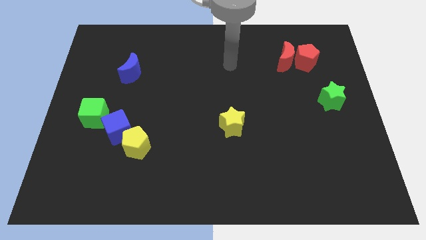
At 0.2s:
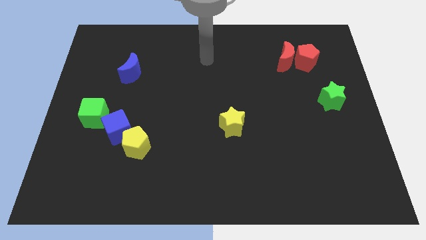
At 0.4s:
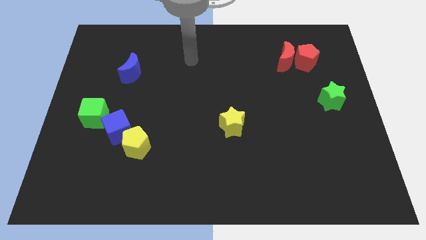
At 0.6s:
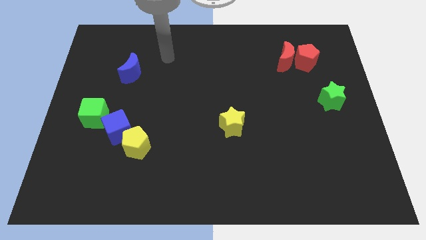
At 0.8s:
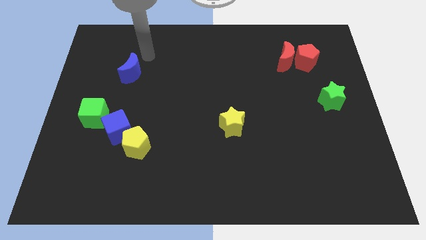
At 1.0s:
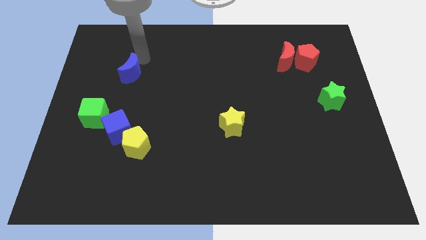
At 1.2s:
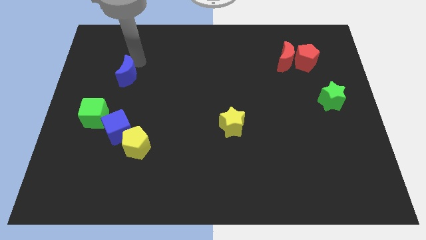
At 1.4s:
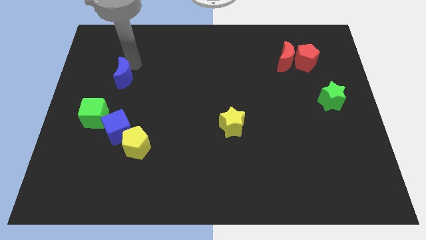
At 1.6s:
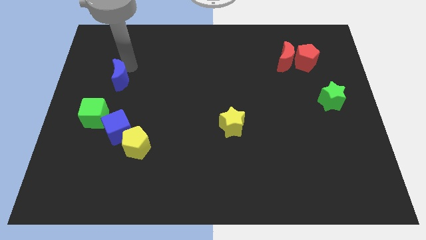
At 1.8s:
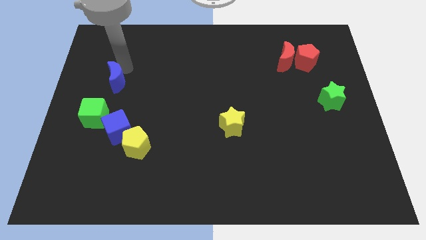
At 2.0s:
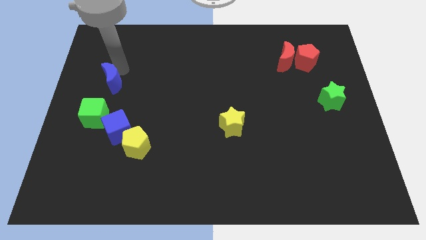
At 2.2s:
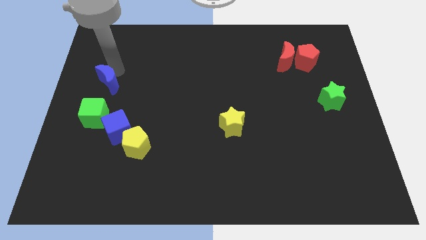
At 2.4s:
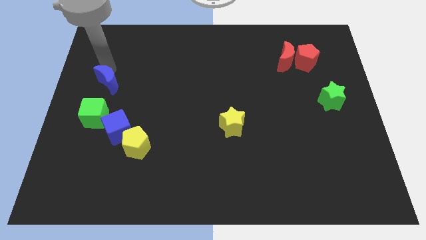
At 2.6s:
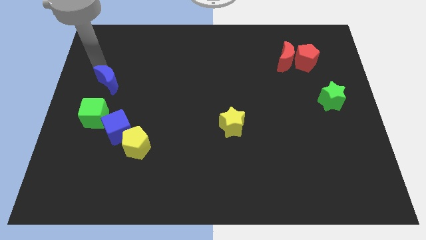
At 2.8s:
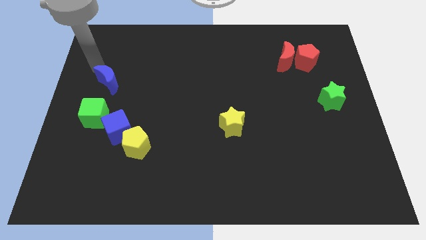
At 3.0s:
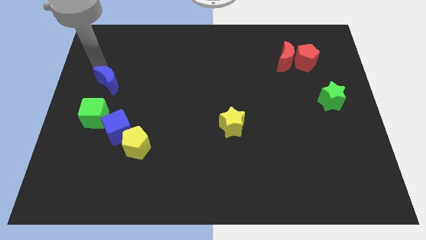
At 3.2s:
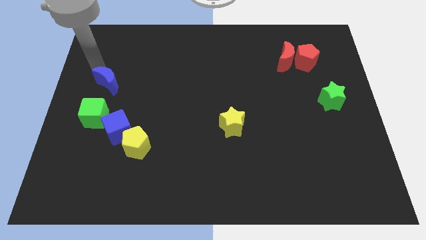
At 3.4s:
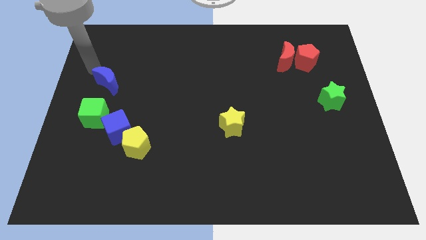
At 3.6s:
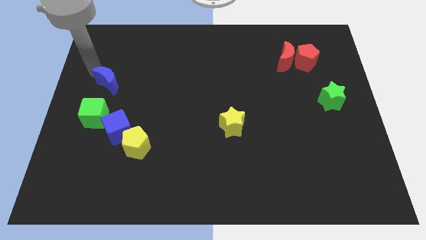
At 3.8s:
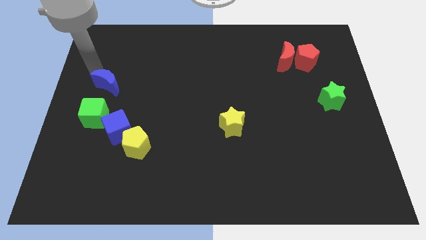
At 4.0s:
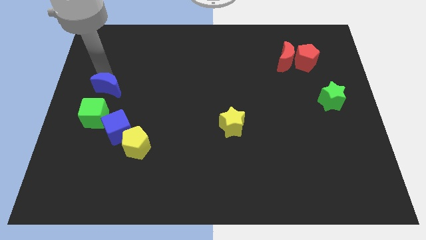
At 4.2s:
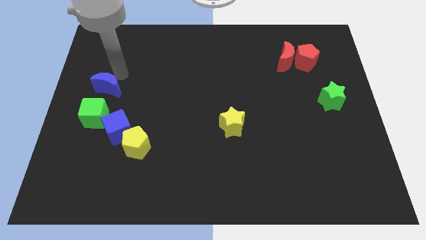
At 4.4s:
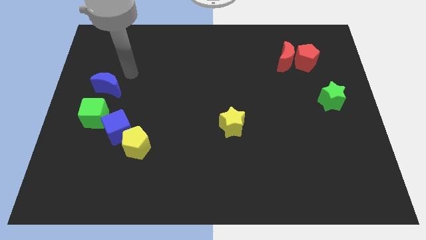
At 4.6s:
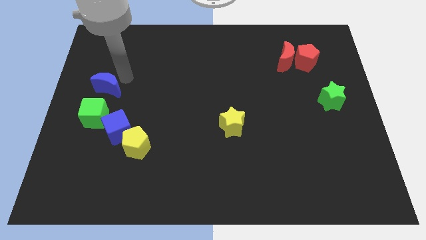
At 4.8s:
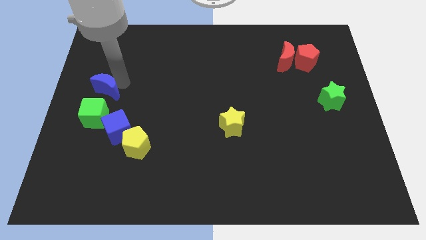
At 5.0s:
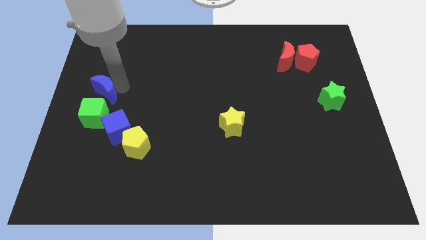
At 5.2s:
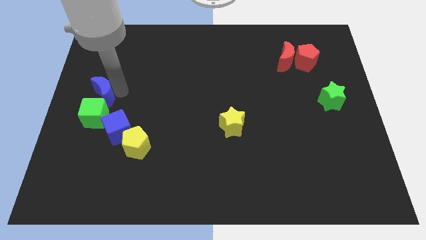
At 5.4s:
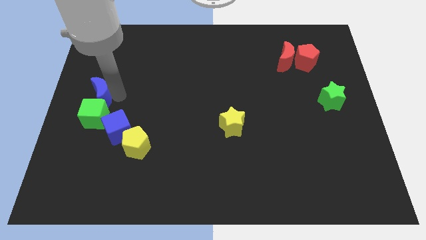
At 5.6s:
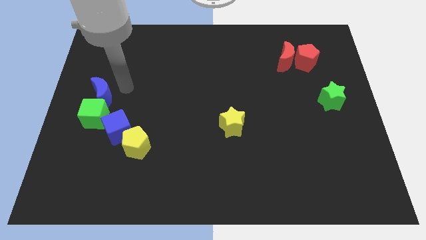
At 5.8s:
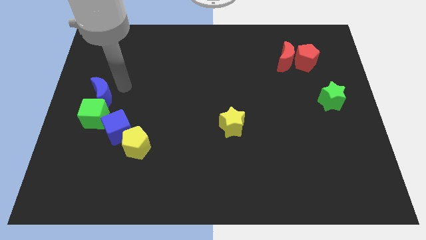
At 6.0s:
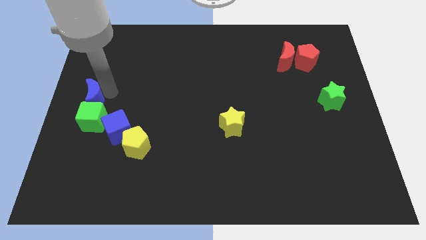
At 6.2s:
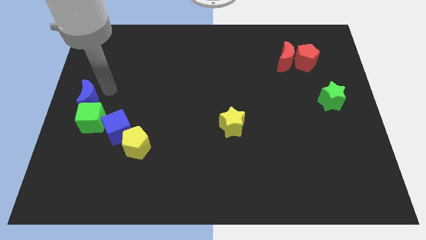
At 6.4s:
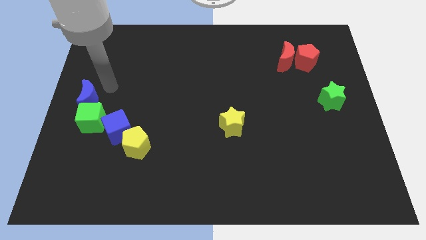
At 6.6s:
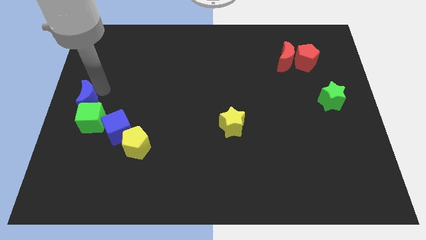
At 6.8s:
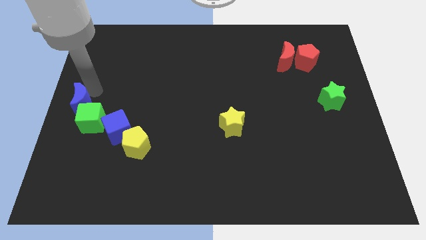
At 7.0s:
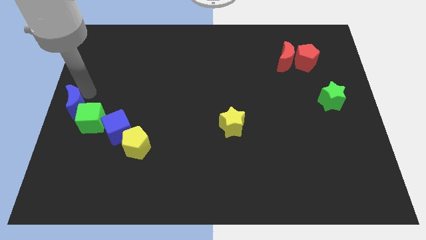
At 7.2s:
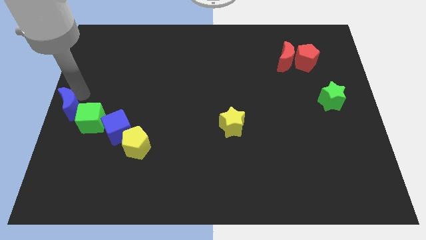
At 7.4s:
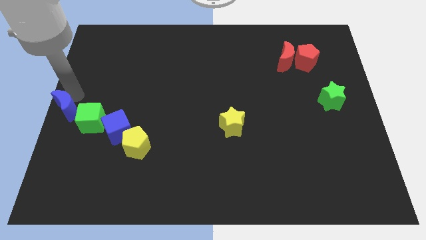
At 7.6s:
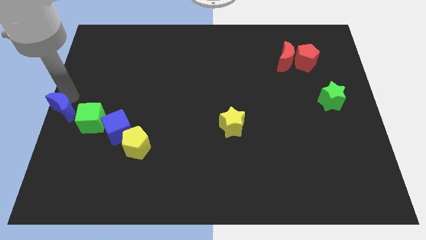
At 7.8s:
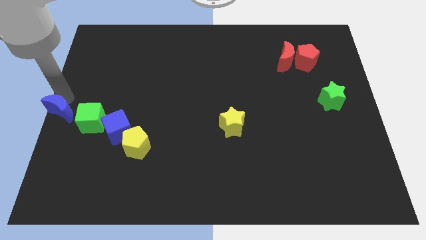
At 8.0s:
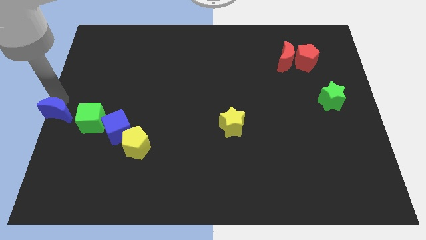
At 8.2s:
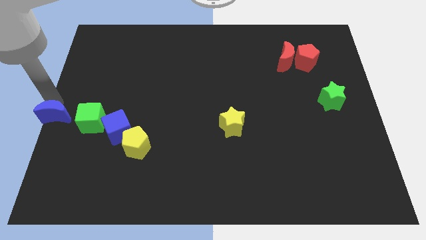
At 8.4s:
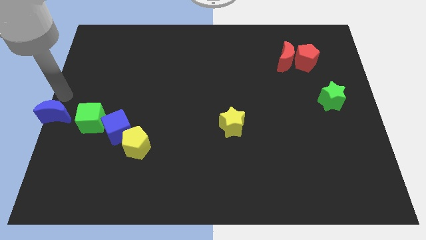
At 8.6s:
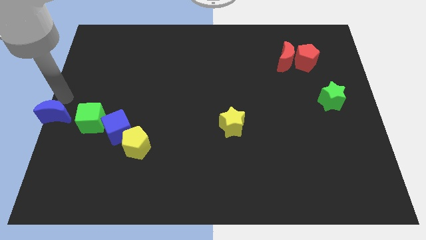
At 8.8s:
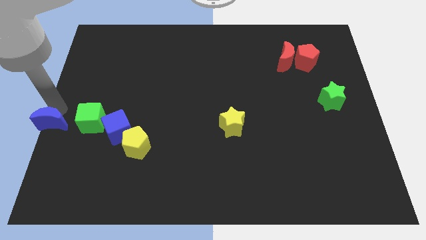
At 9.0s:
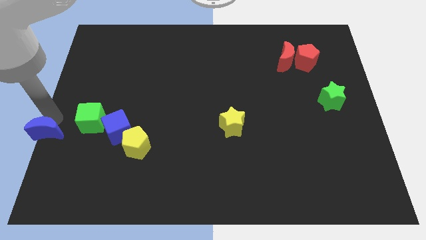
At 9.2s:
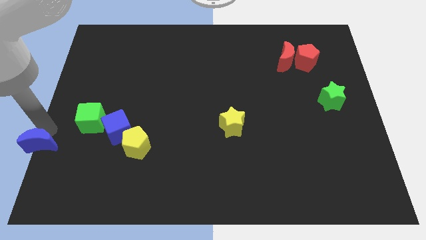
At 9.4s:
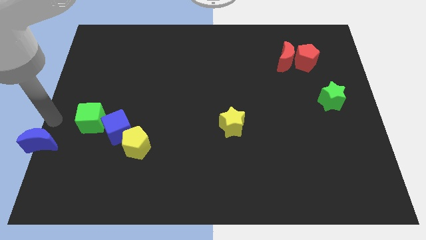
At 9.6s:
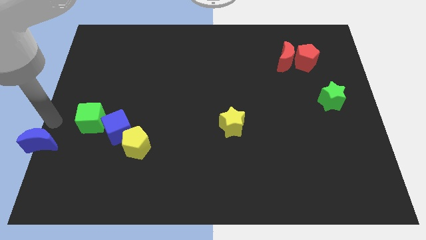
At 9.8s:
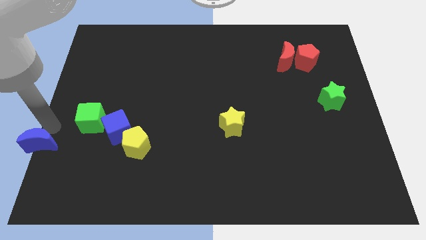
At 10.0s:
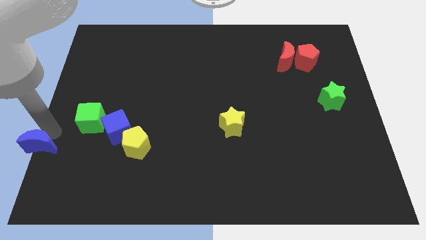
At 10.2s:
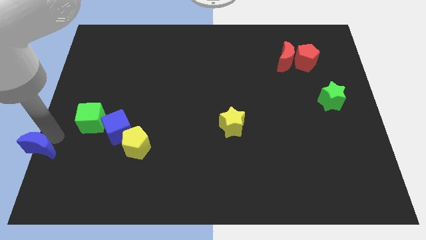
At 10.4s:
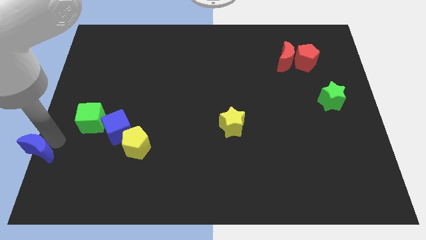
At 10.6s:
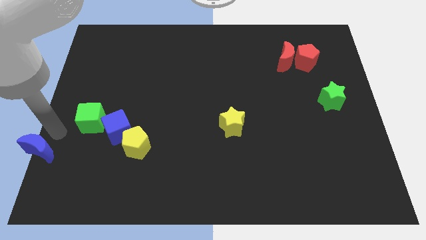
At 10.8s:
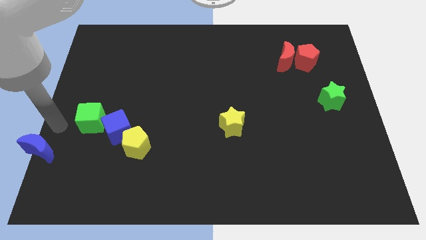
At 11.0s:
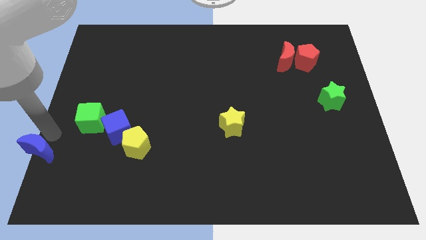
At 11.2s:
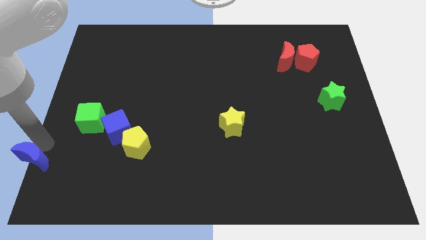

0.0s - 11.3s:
move the blue moon to the bottom left of the board

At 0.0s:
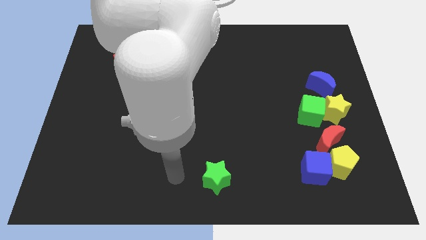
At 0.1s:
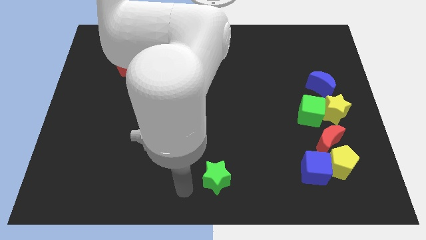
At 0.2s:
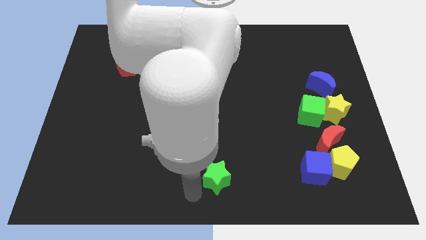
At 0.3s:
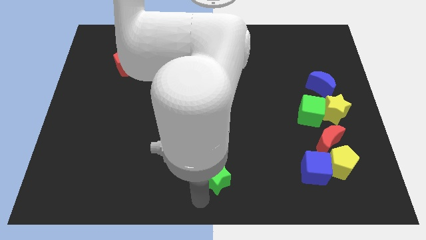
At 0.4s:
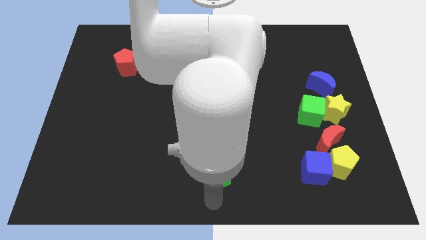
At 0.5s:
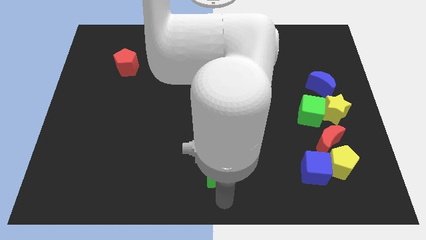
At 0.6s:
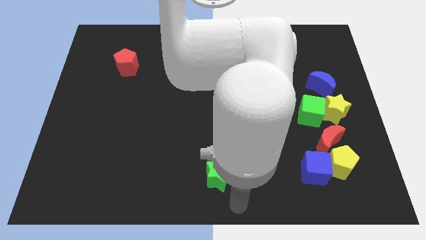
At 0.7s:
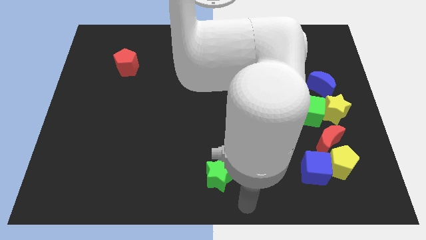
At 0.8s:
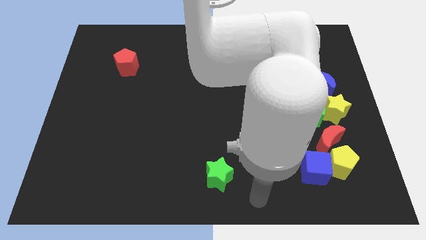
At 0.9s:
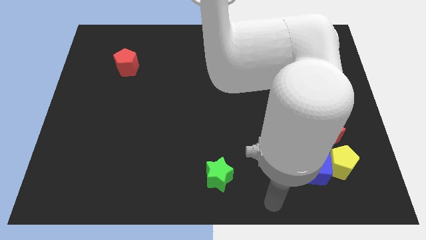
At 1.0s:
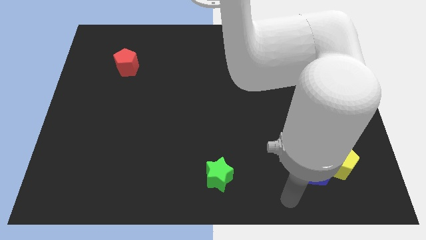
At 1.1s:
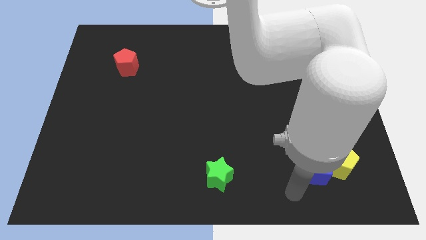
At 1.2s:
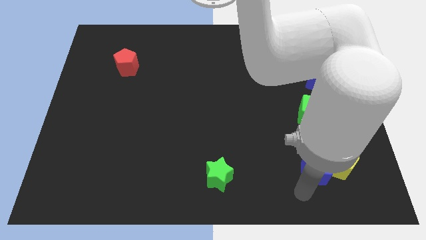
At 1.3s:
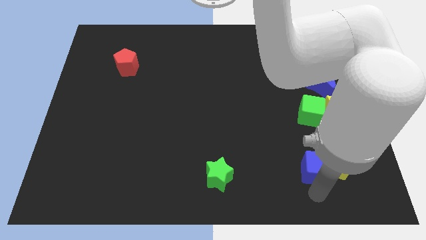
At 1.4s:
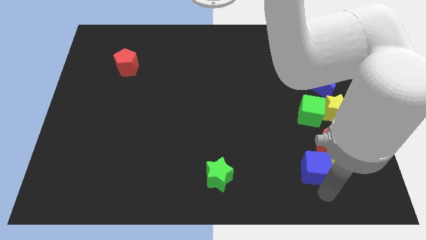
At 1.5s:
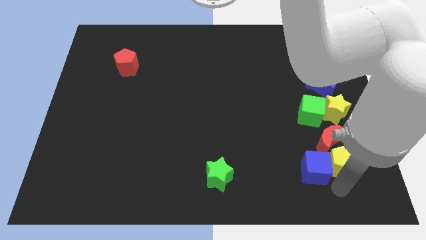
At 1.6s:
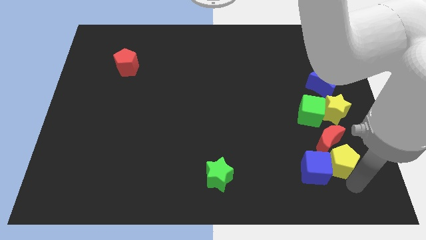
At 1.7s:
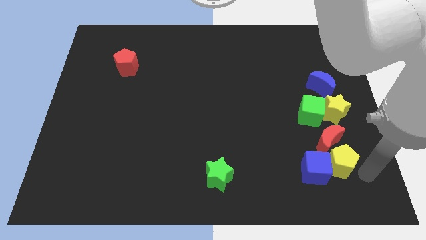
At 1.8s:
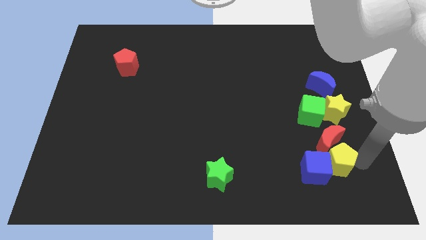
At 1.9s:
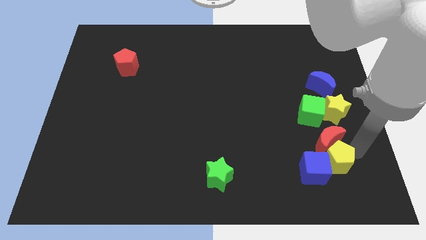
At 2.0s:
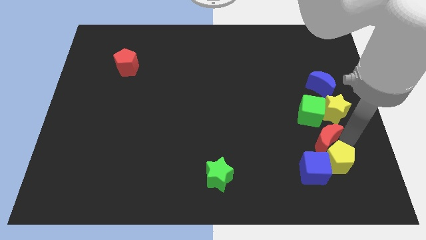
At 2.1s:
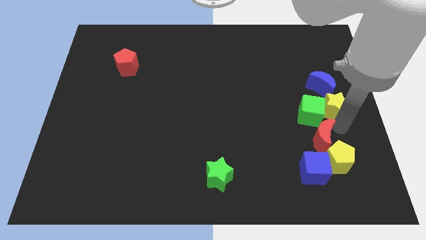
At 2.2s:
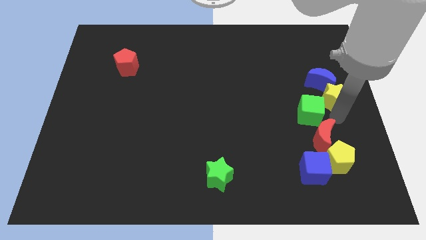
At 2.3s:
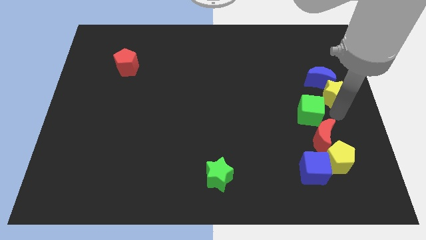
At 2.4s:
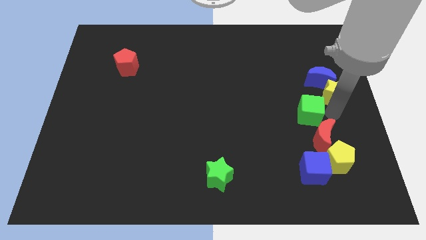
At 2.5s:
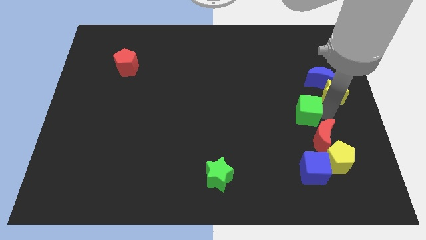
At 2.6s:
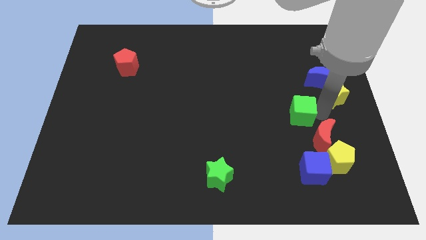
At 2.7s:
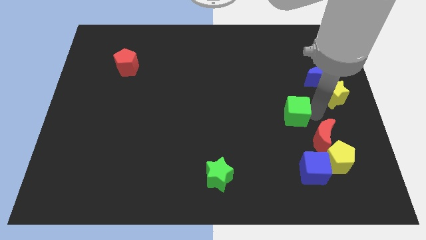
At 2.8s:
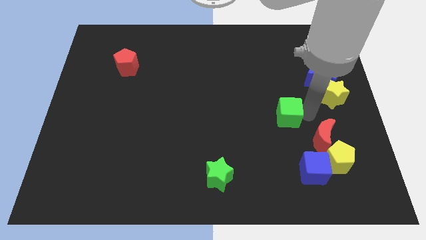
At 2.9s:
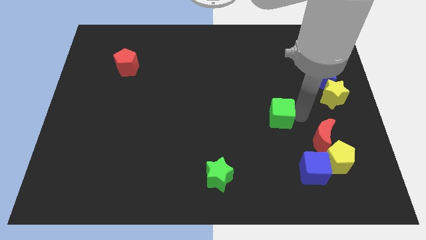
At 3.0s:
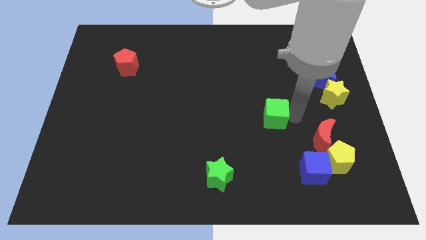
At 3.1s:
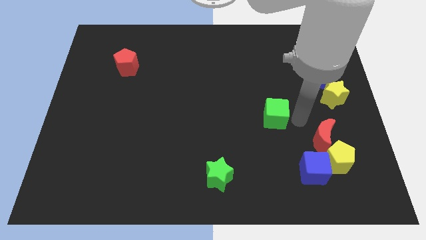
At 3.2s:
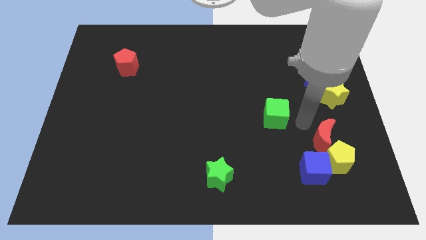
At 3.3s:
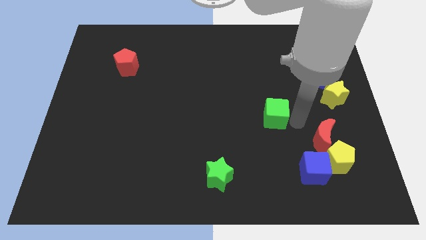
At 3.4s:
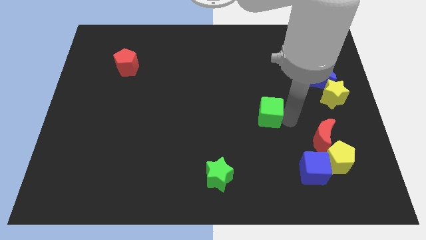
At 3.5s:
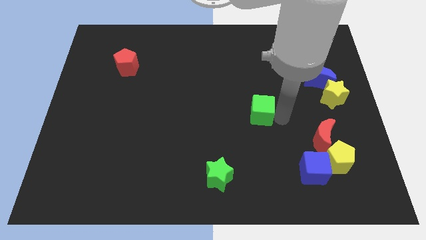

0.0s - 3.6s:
put the green cube to the center of the board
